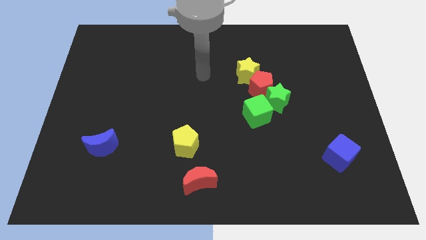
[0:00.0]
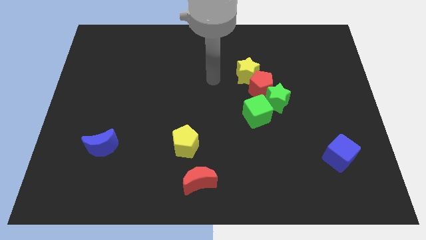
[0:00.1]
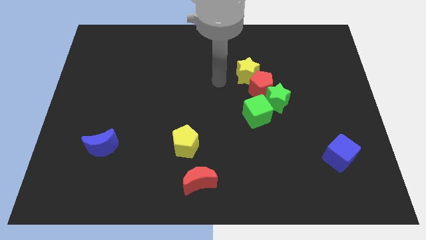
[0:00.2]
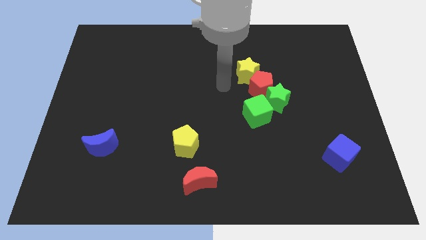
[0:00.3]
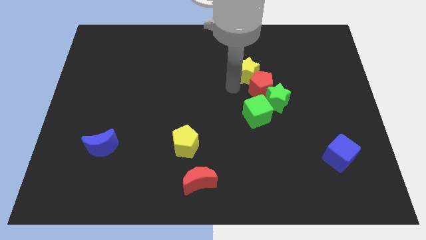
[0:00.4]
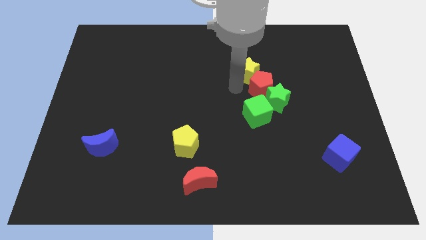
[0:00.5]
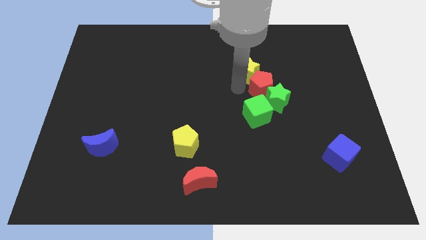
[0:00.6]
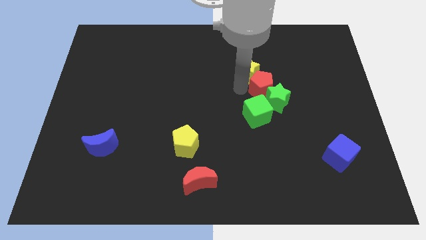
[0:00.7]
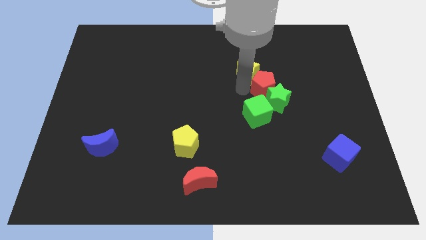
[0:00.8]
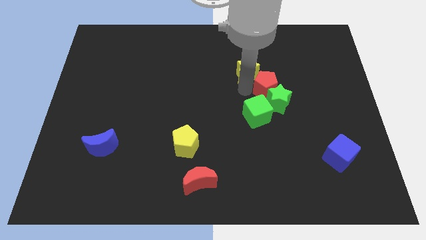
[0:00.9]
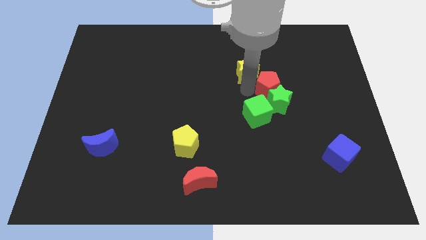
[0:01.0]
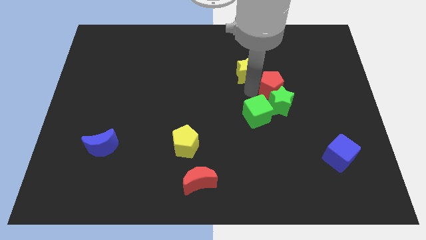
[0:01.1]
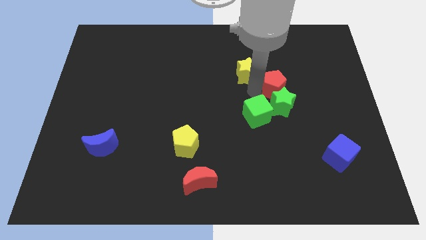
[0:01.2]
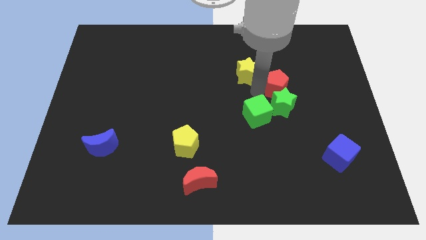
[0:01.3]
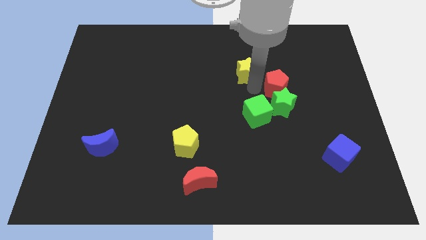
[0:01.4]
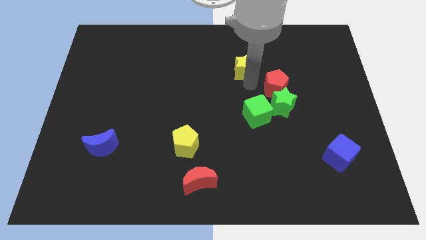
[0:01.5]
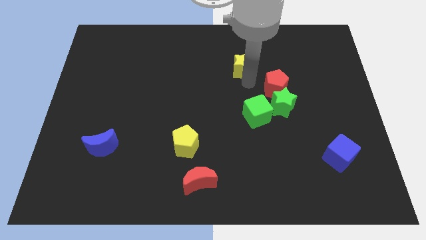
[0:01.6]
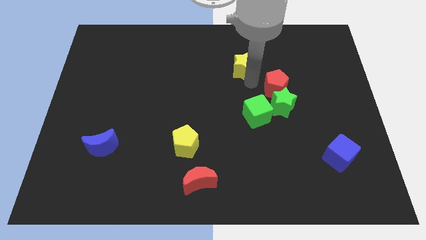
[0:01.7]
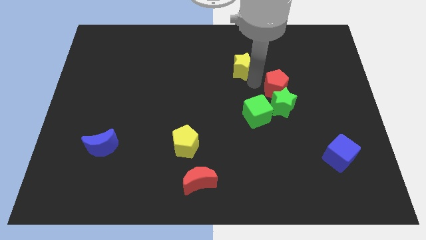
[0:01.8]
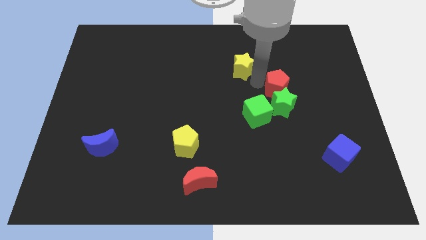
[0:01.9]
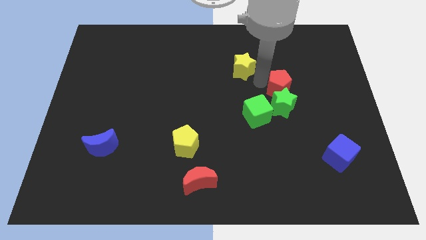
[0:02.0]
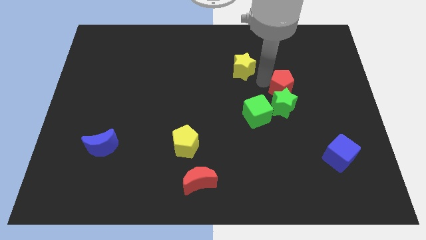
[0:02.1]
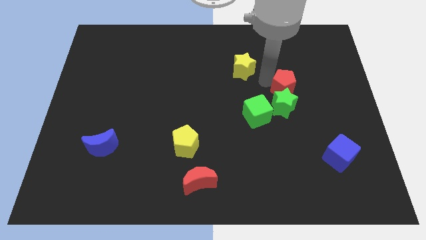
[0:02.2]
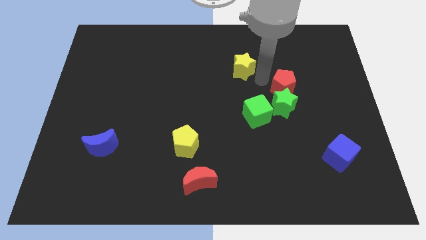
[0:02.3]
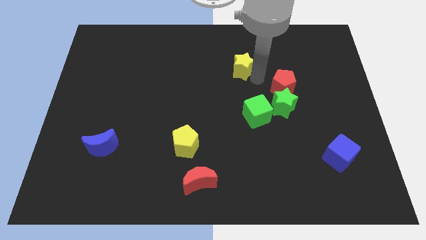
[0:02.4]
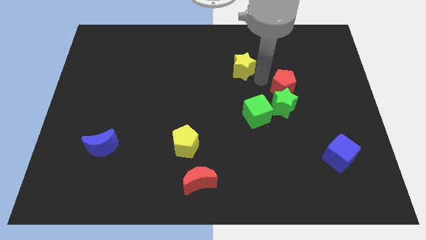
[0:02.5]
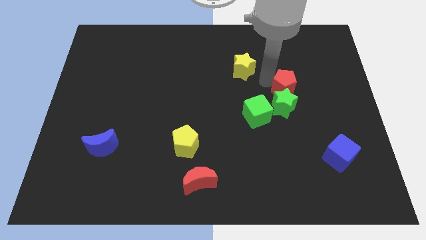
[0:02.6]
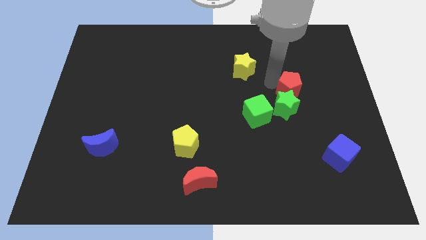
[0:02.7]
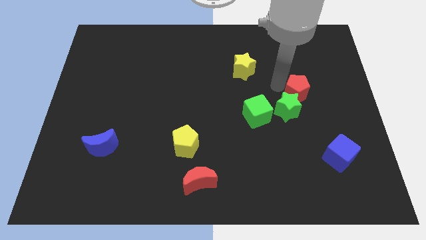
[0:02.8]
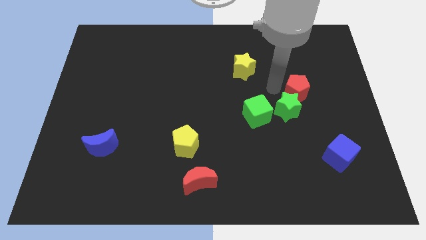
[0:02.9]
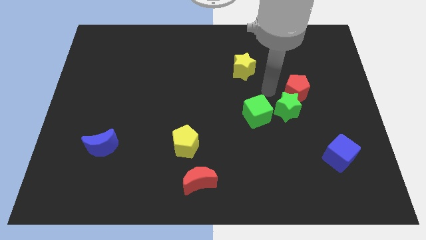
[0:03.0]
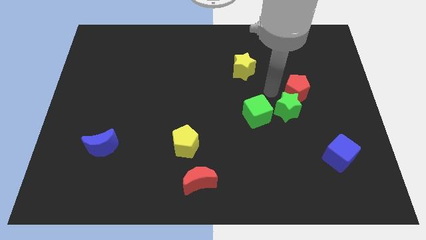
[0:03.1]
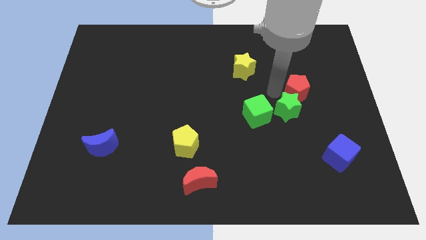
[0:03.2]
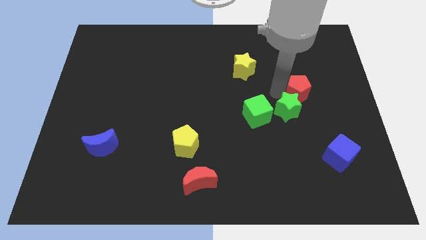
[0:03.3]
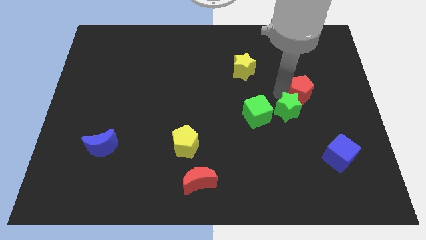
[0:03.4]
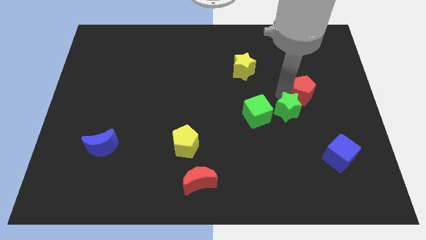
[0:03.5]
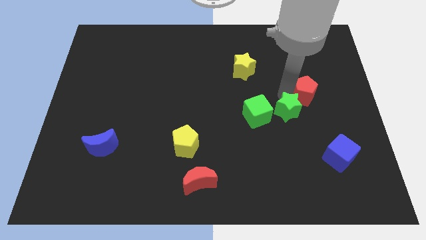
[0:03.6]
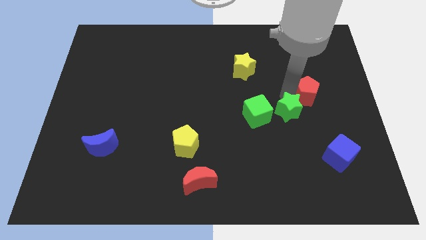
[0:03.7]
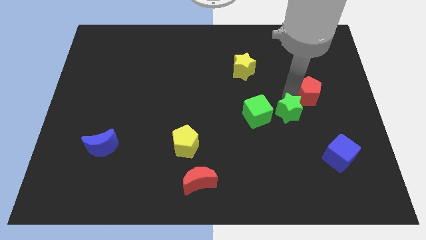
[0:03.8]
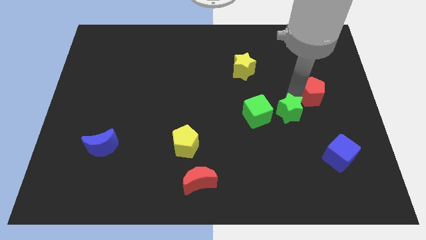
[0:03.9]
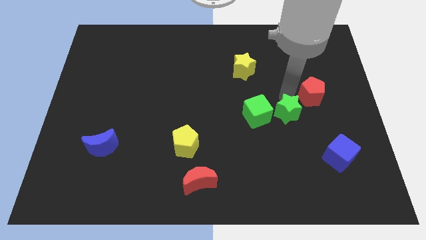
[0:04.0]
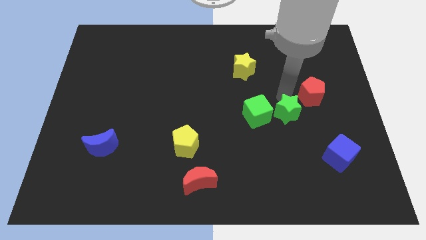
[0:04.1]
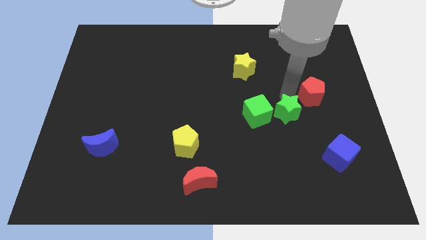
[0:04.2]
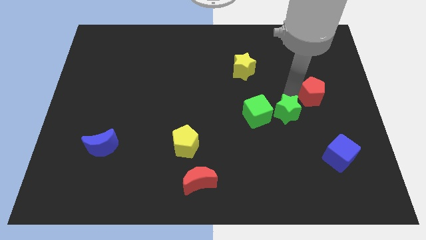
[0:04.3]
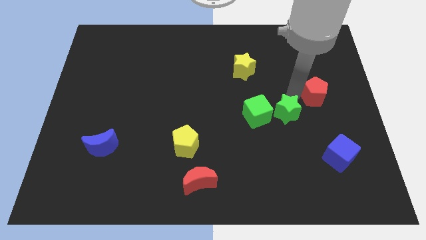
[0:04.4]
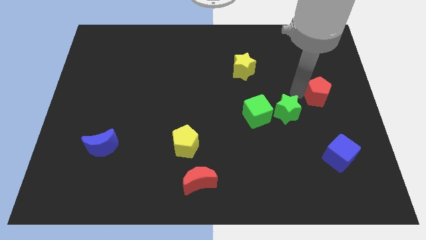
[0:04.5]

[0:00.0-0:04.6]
push the red pentagon to the right side of the board

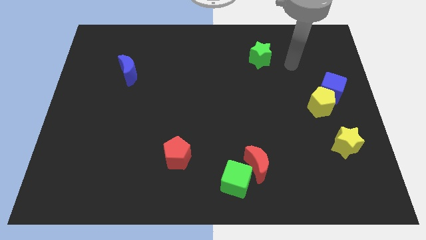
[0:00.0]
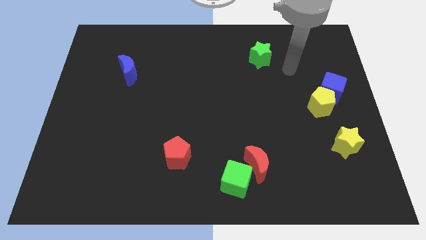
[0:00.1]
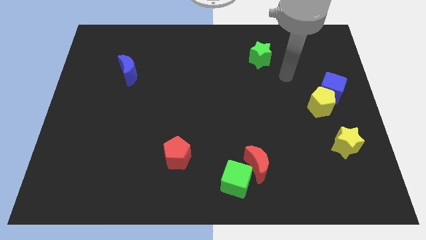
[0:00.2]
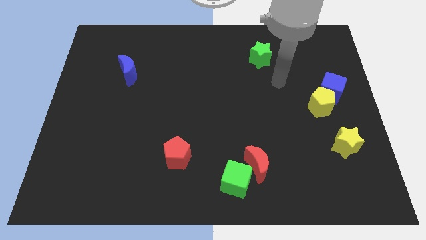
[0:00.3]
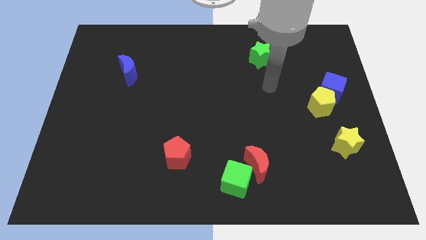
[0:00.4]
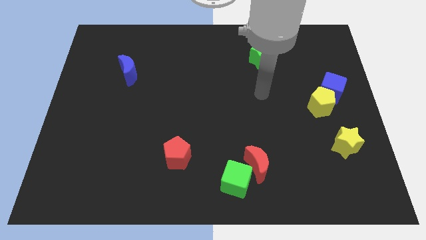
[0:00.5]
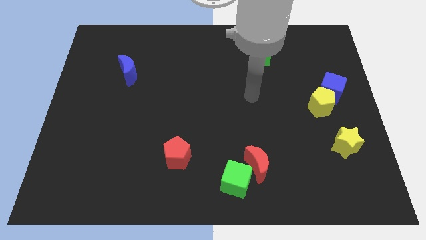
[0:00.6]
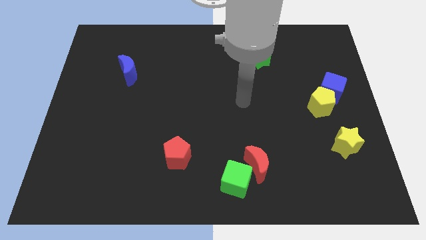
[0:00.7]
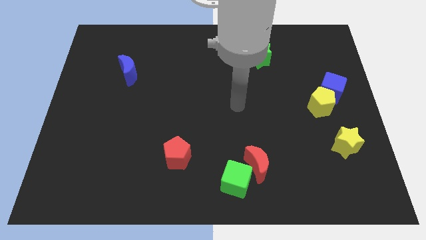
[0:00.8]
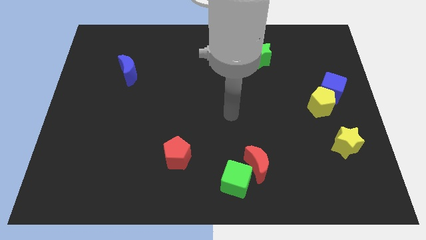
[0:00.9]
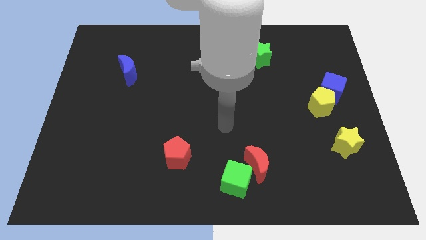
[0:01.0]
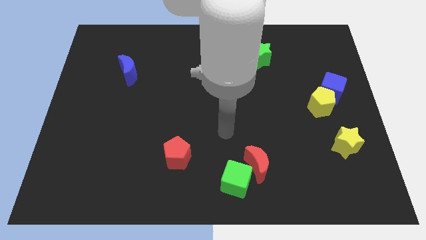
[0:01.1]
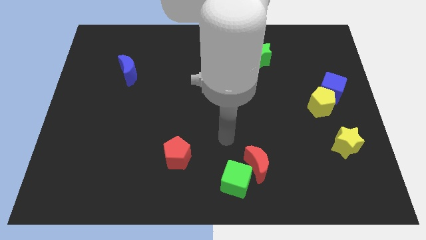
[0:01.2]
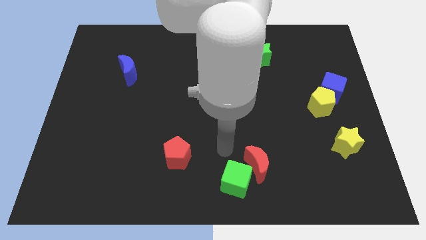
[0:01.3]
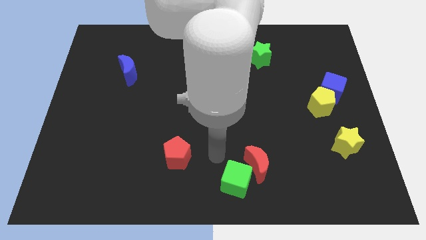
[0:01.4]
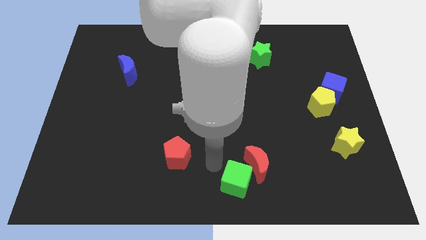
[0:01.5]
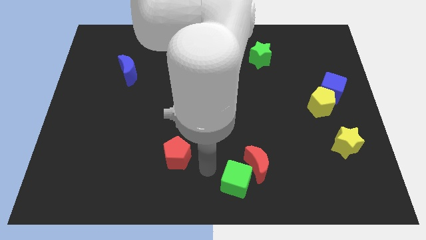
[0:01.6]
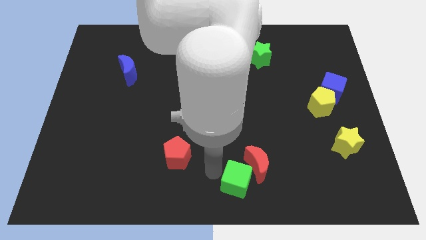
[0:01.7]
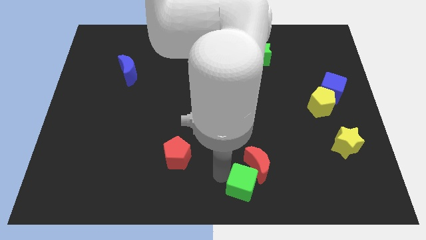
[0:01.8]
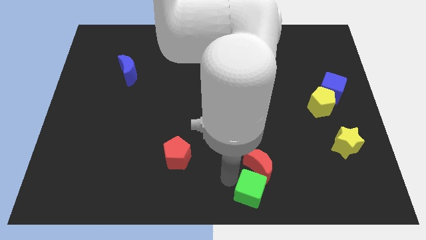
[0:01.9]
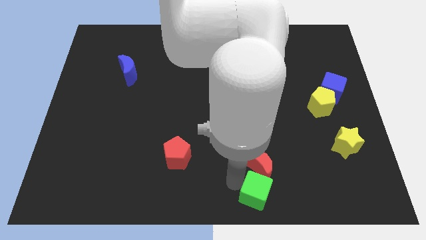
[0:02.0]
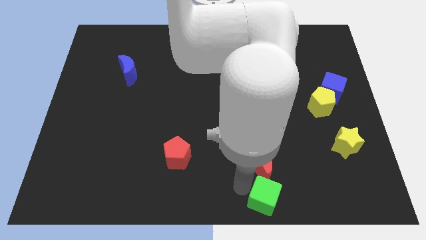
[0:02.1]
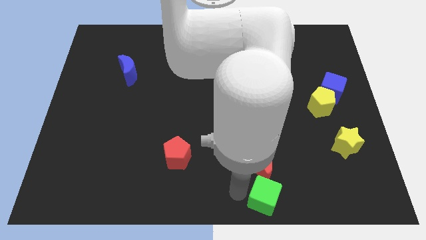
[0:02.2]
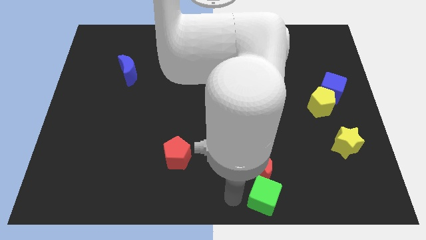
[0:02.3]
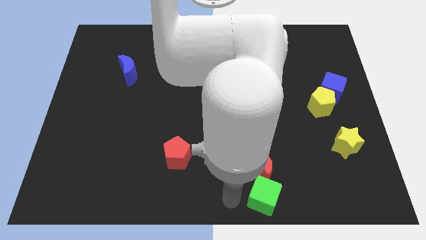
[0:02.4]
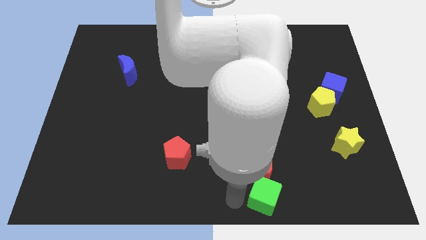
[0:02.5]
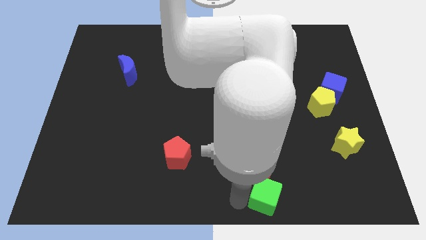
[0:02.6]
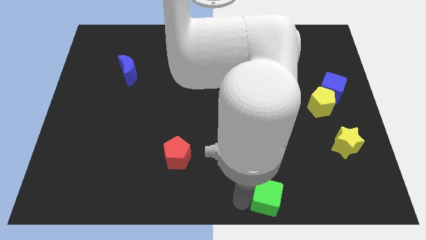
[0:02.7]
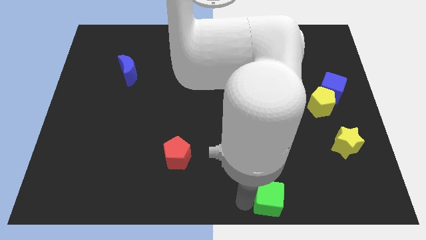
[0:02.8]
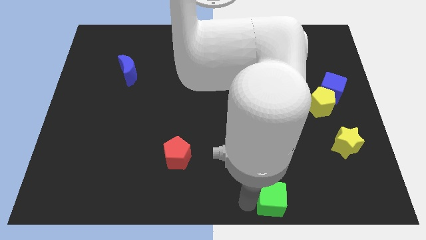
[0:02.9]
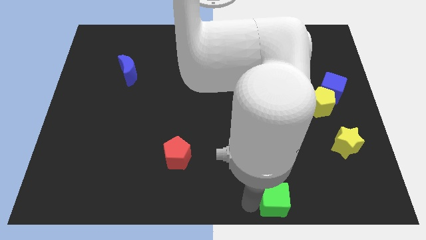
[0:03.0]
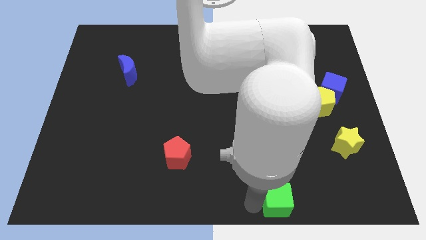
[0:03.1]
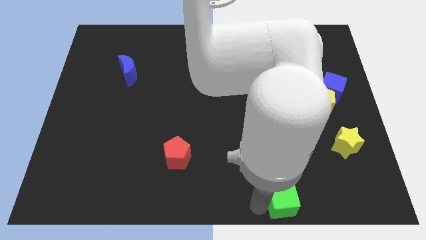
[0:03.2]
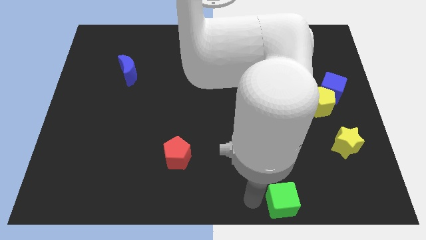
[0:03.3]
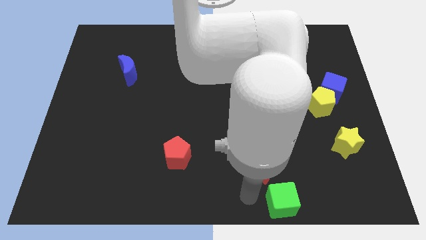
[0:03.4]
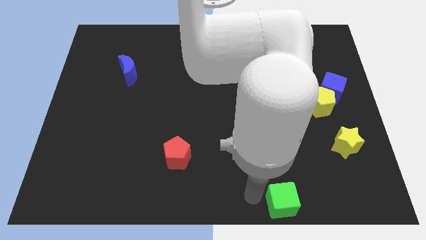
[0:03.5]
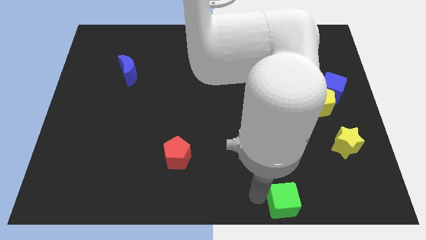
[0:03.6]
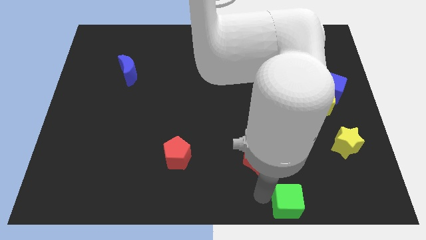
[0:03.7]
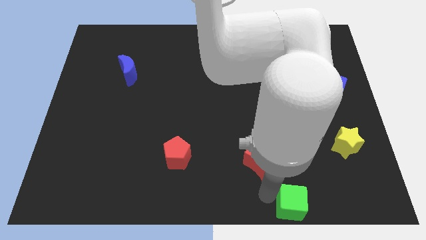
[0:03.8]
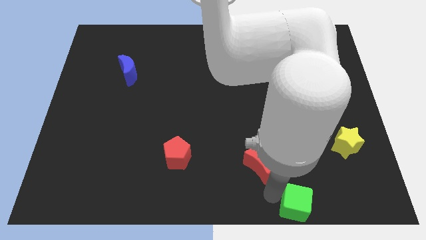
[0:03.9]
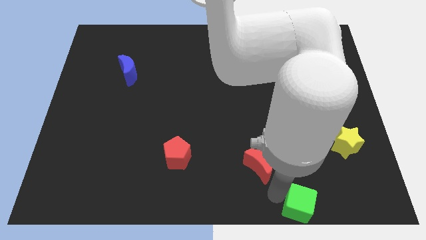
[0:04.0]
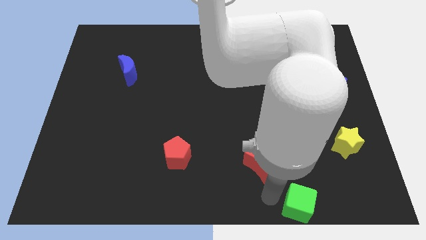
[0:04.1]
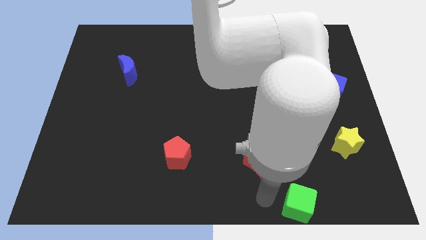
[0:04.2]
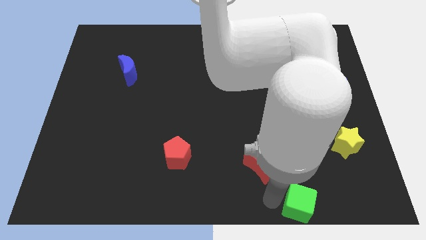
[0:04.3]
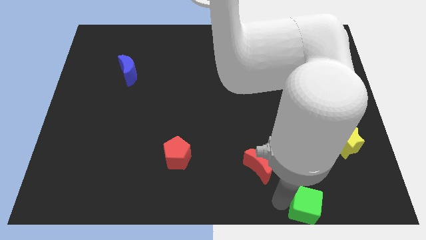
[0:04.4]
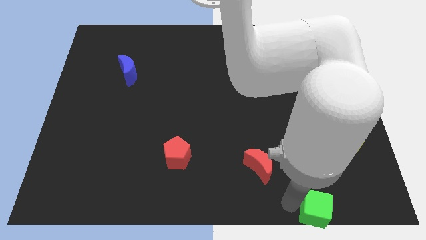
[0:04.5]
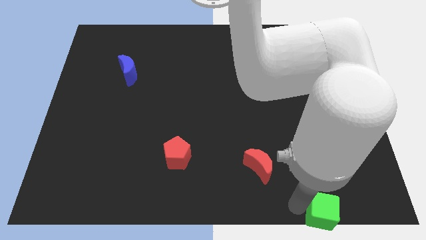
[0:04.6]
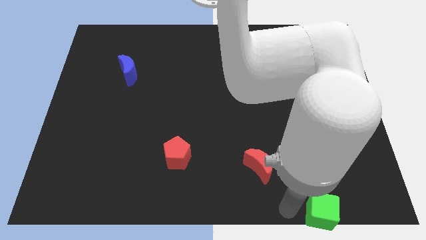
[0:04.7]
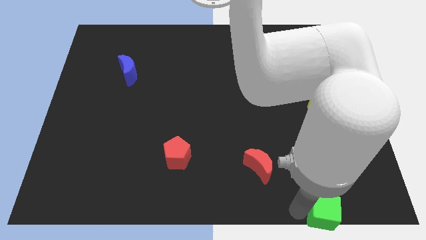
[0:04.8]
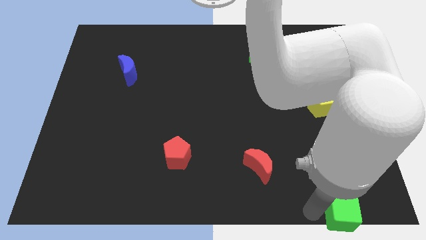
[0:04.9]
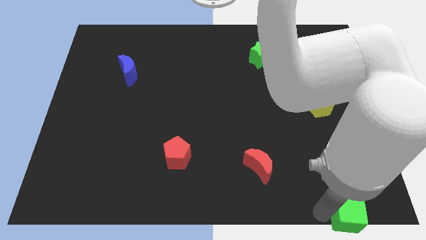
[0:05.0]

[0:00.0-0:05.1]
move the green cube to the bottom right
